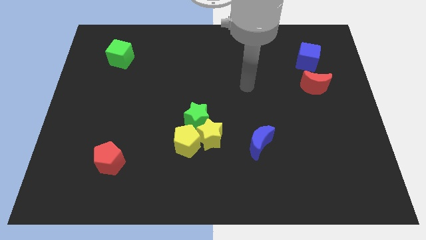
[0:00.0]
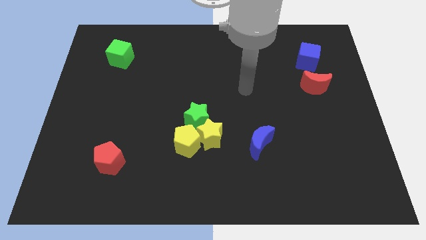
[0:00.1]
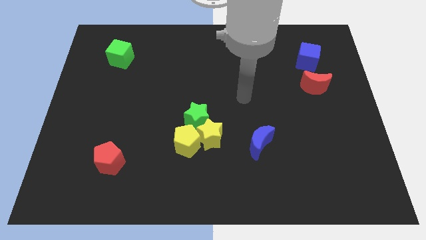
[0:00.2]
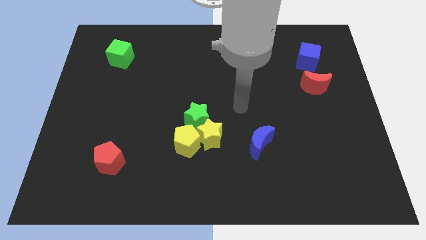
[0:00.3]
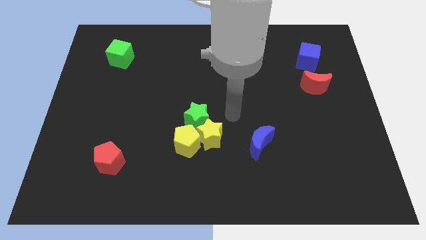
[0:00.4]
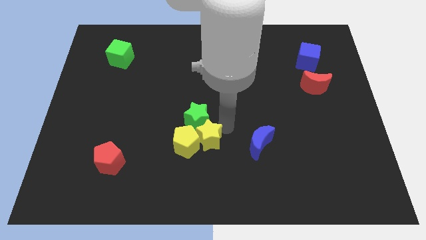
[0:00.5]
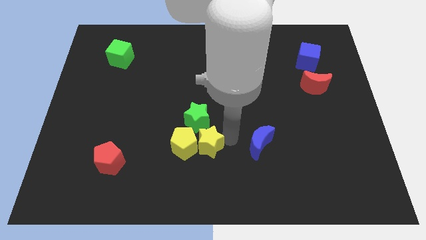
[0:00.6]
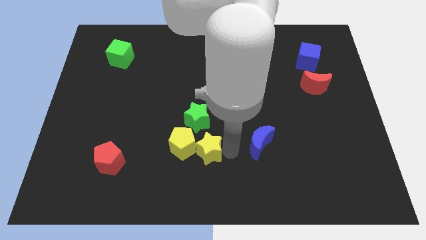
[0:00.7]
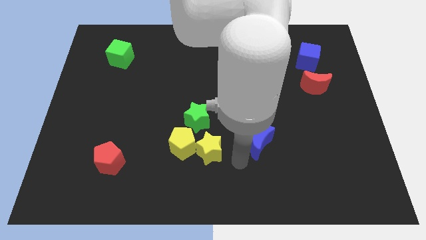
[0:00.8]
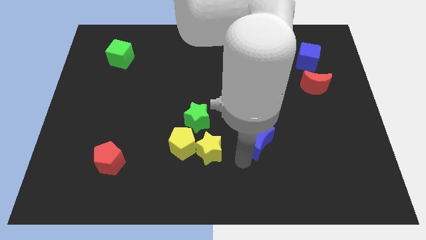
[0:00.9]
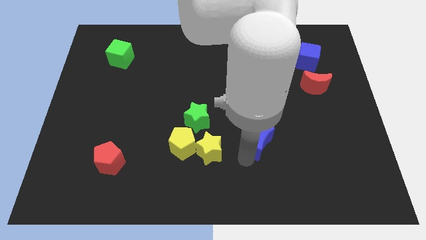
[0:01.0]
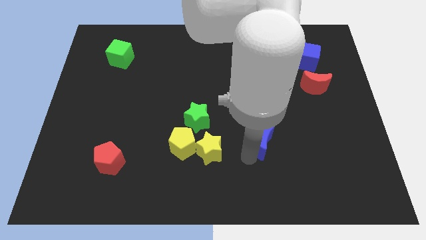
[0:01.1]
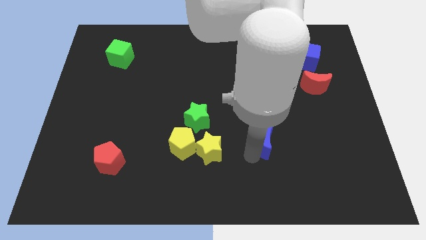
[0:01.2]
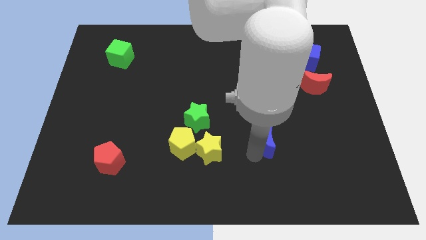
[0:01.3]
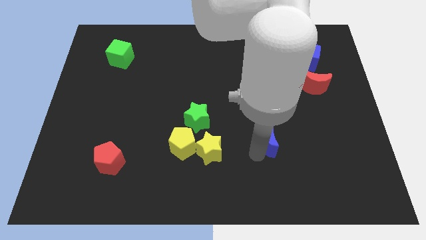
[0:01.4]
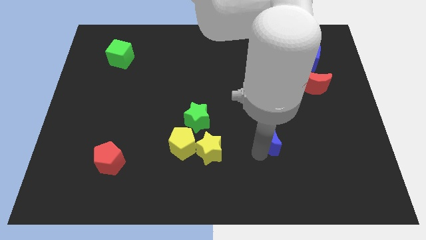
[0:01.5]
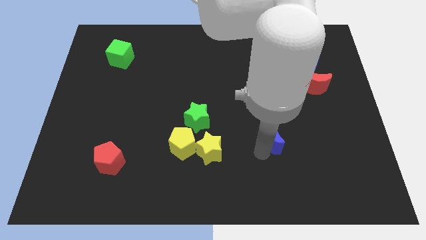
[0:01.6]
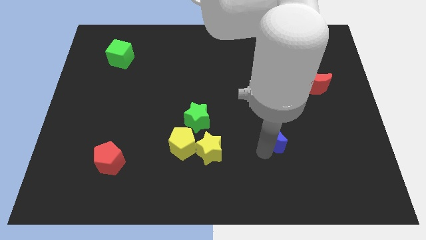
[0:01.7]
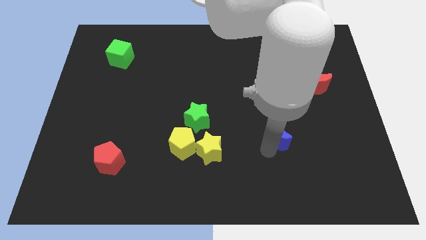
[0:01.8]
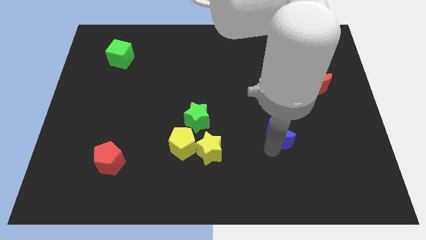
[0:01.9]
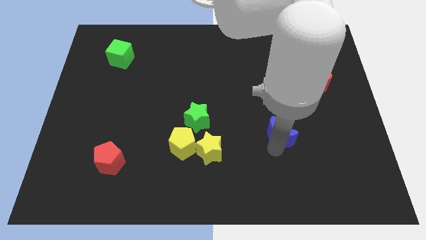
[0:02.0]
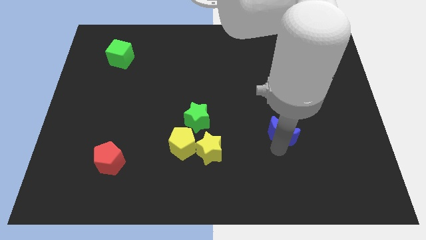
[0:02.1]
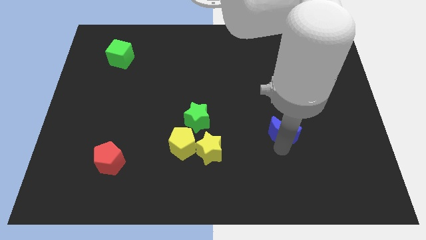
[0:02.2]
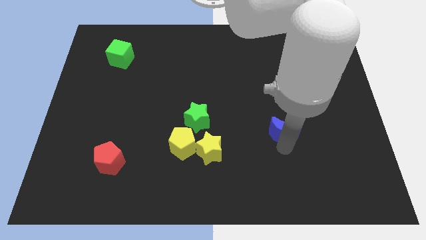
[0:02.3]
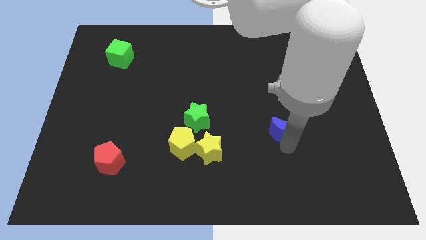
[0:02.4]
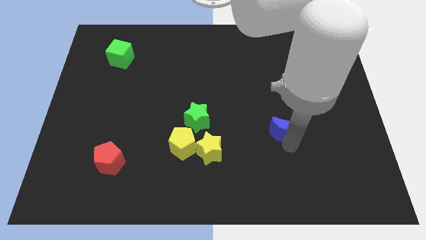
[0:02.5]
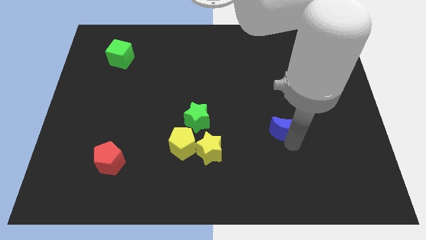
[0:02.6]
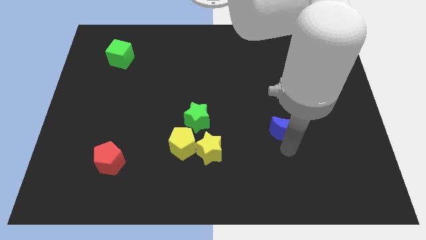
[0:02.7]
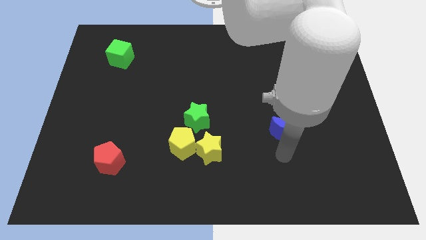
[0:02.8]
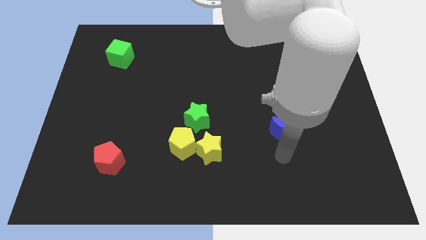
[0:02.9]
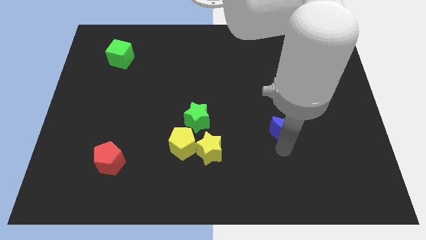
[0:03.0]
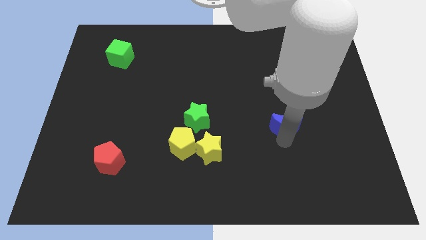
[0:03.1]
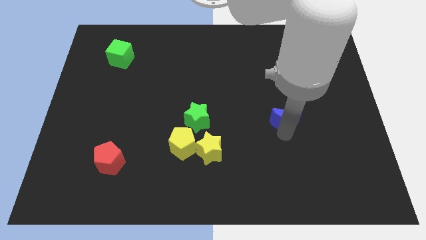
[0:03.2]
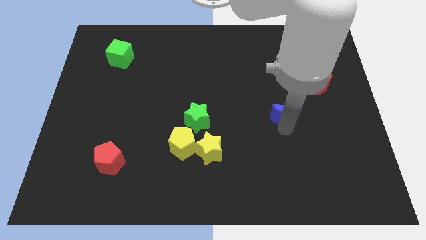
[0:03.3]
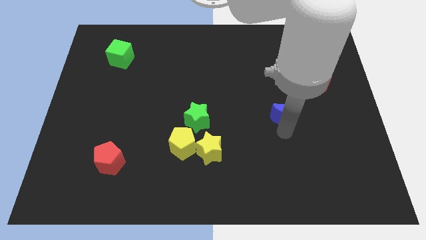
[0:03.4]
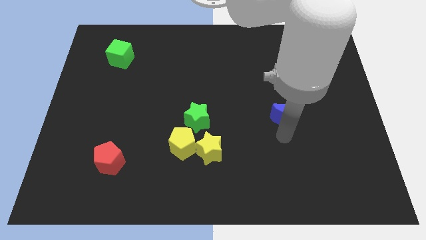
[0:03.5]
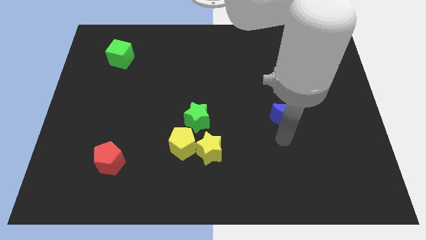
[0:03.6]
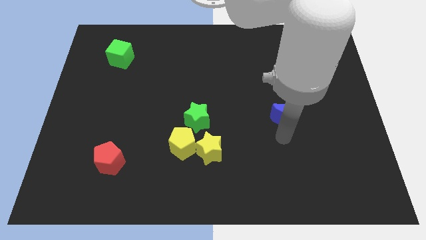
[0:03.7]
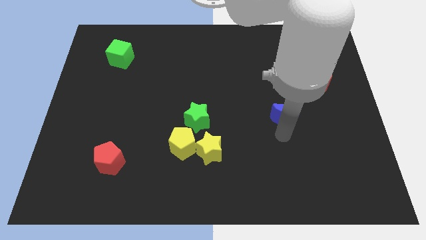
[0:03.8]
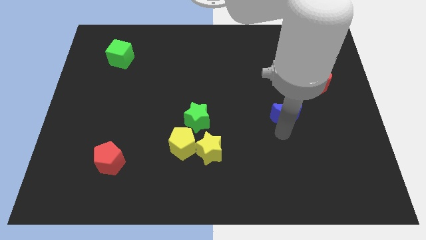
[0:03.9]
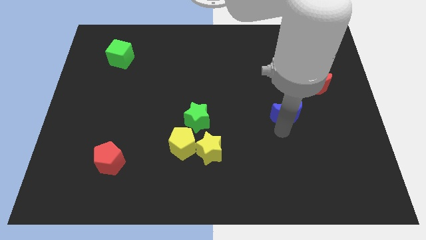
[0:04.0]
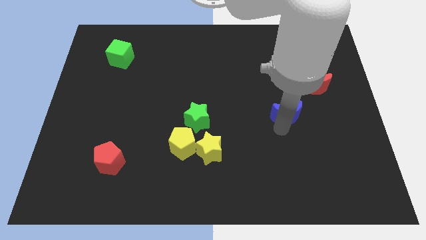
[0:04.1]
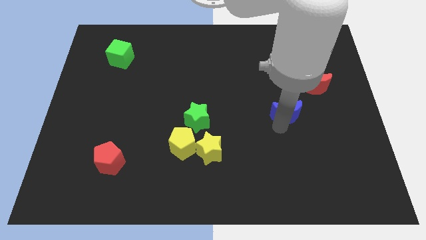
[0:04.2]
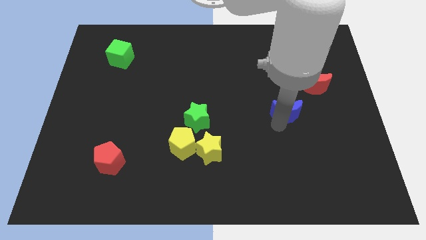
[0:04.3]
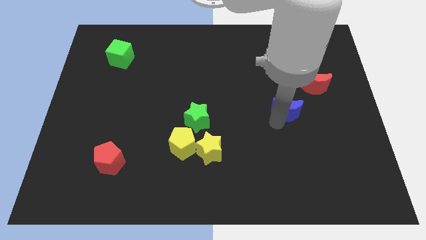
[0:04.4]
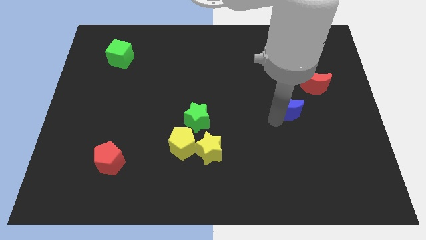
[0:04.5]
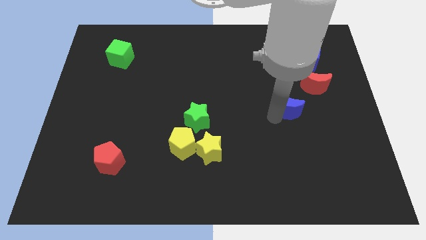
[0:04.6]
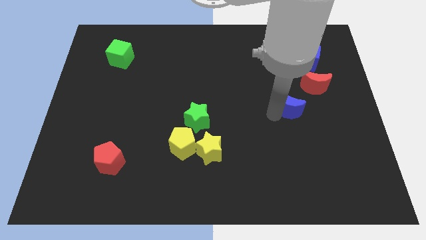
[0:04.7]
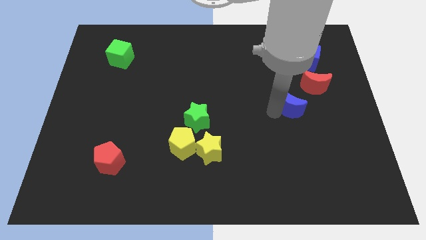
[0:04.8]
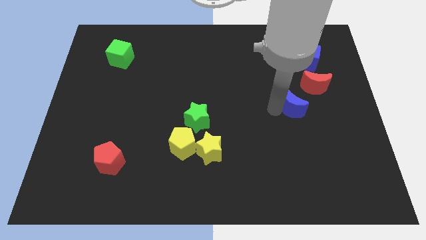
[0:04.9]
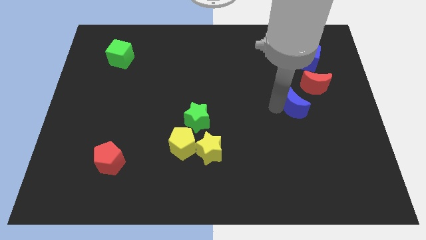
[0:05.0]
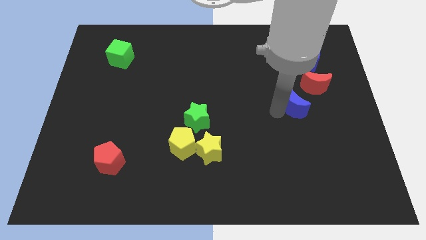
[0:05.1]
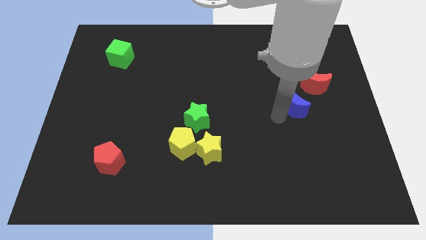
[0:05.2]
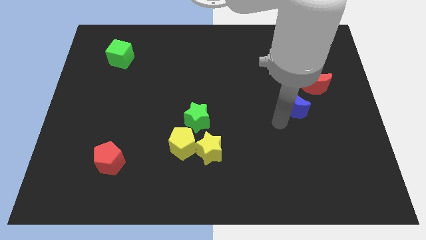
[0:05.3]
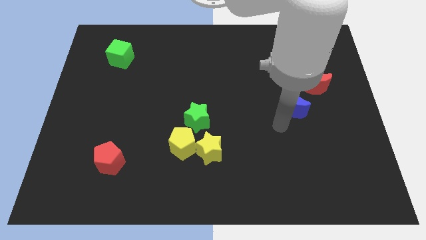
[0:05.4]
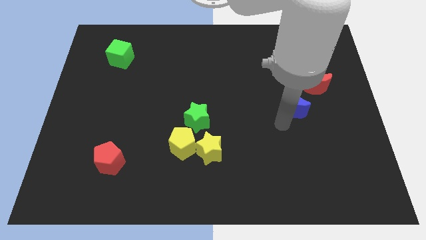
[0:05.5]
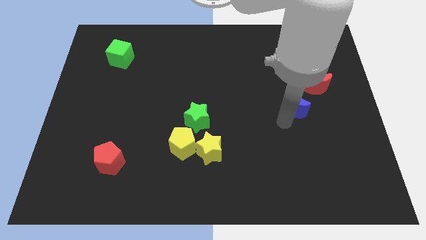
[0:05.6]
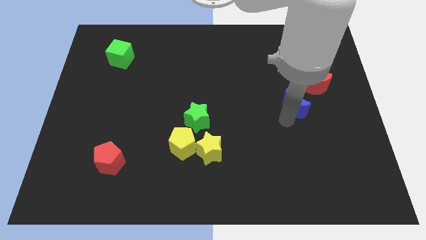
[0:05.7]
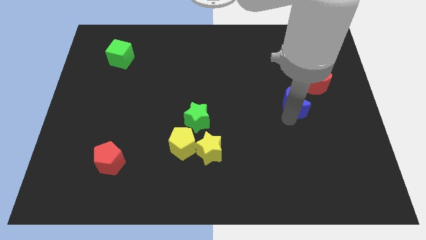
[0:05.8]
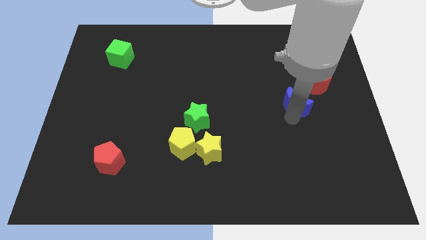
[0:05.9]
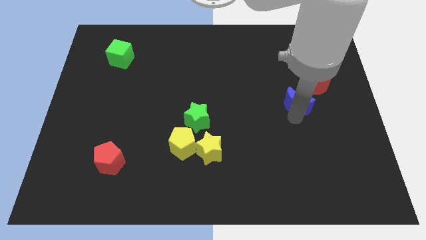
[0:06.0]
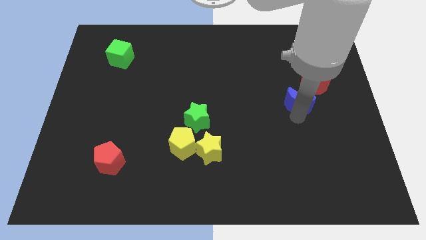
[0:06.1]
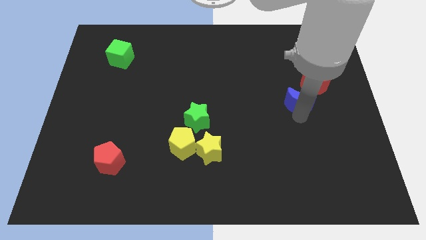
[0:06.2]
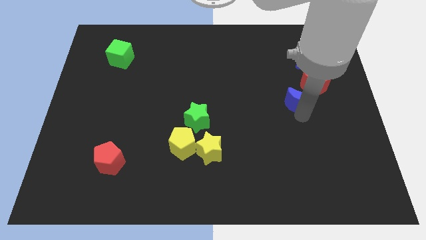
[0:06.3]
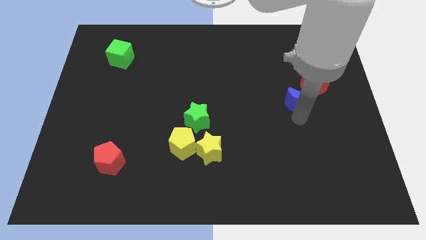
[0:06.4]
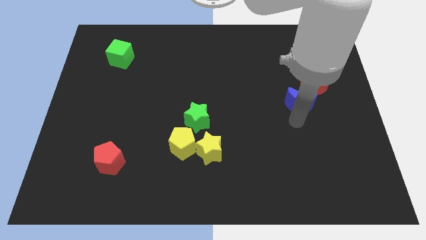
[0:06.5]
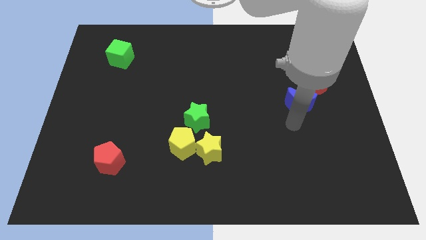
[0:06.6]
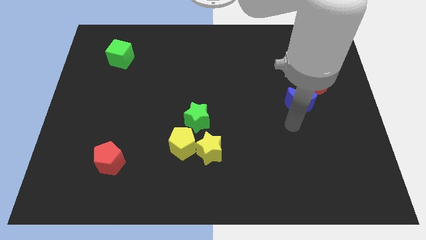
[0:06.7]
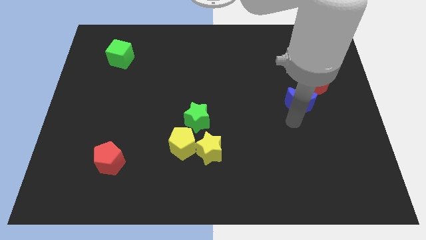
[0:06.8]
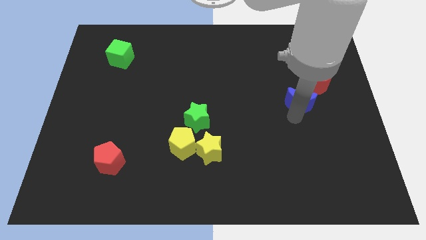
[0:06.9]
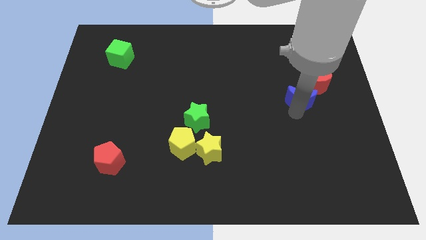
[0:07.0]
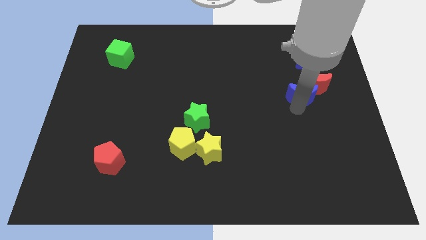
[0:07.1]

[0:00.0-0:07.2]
slide the blue moon to the red moon
